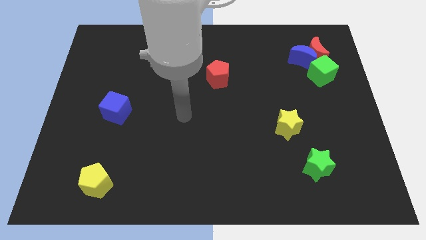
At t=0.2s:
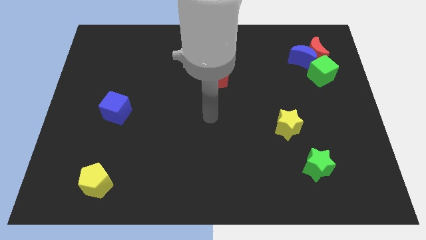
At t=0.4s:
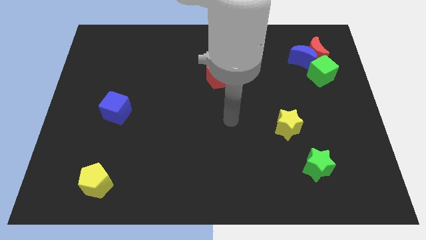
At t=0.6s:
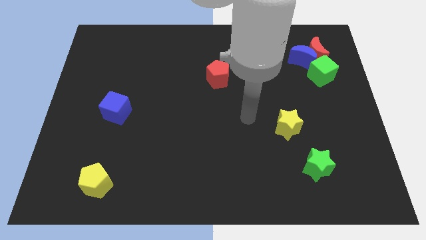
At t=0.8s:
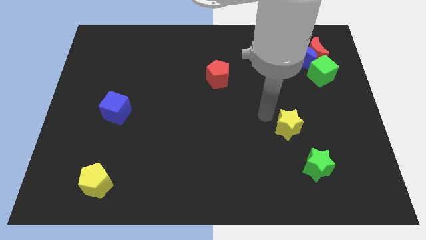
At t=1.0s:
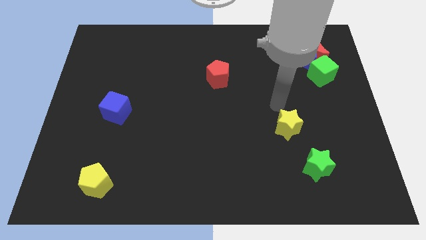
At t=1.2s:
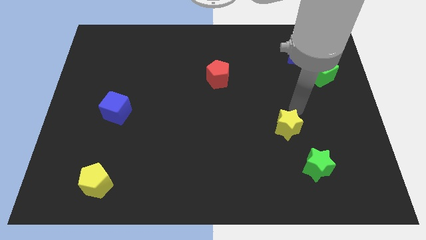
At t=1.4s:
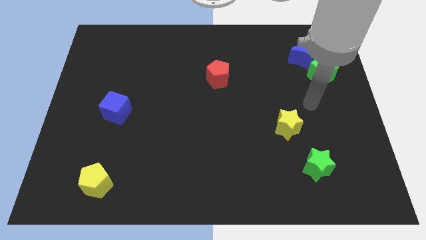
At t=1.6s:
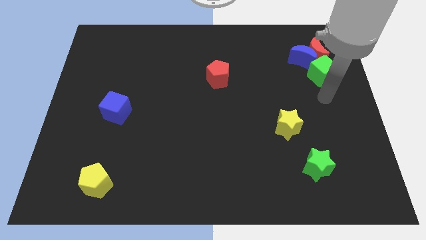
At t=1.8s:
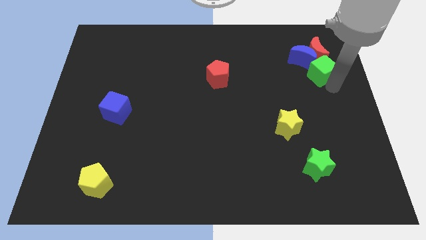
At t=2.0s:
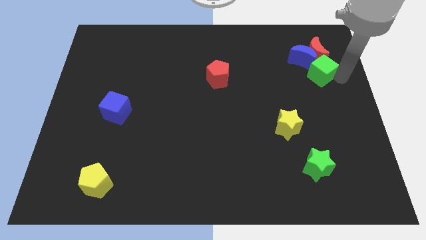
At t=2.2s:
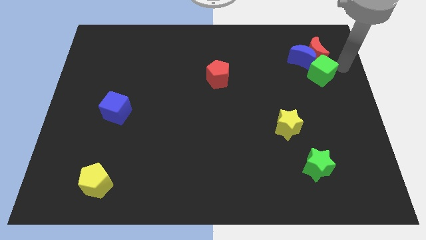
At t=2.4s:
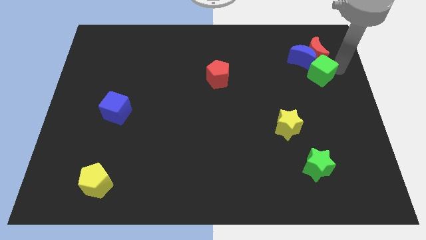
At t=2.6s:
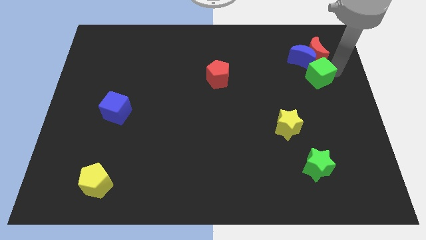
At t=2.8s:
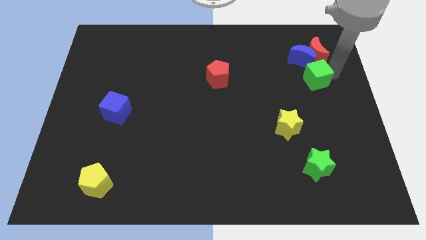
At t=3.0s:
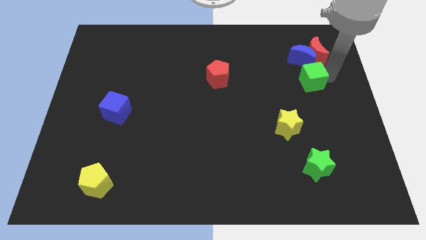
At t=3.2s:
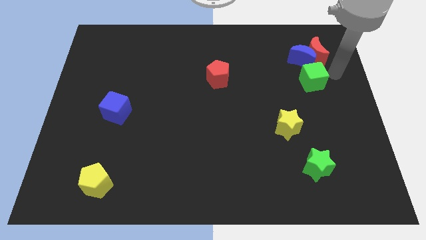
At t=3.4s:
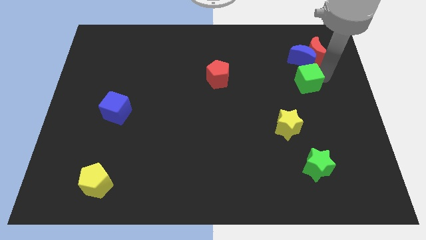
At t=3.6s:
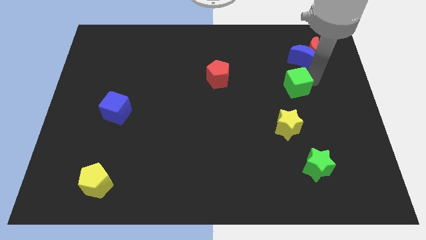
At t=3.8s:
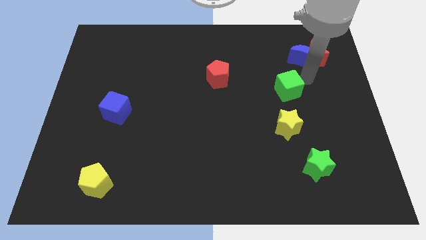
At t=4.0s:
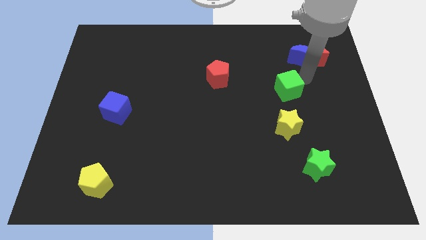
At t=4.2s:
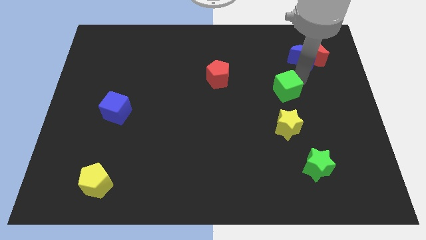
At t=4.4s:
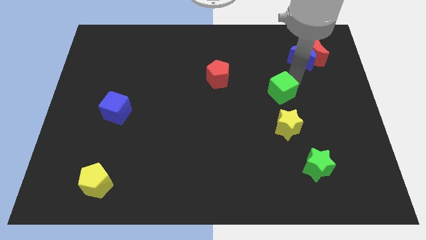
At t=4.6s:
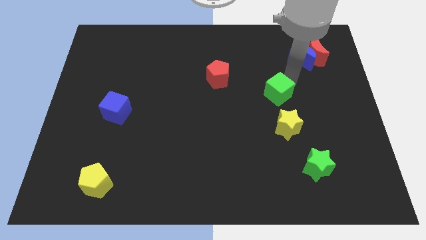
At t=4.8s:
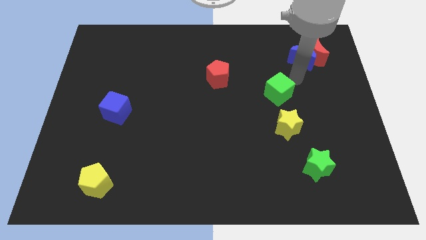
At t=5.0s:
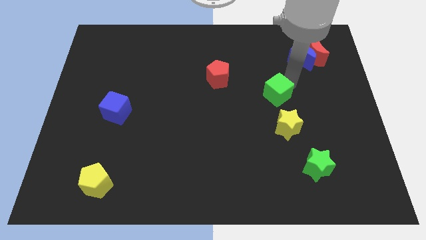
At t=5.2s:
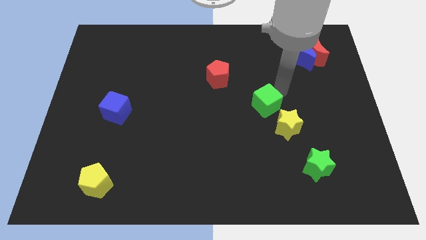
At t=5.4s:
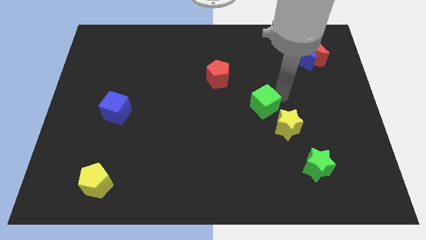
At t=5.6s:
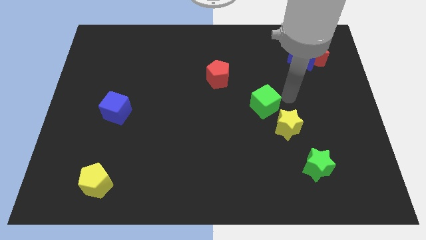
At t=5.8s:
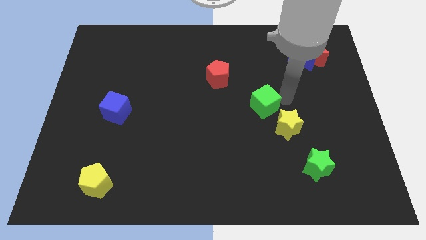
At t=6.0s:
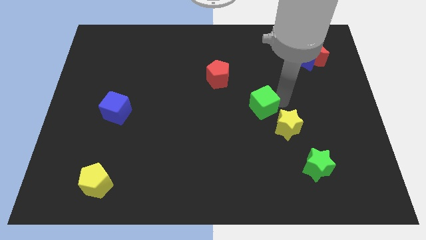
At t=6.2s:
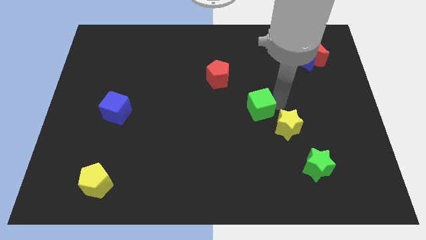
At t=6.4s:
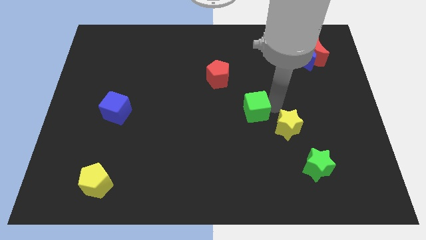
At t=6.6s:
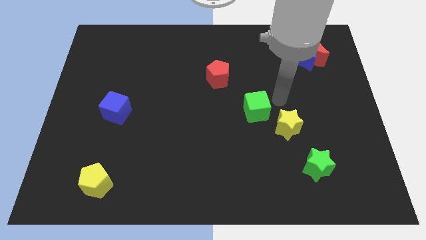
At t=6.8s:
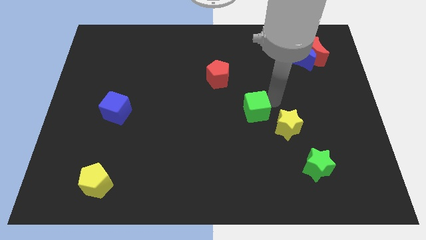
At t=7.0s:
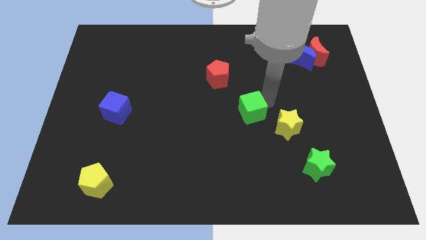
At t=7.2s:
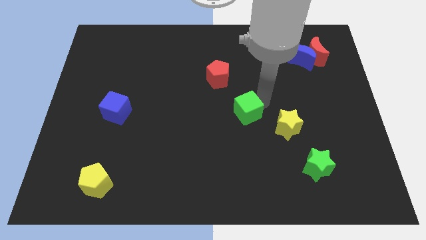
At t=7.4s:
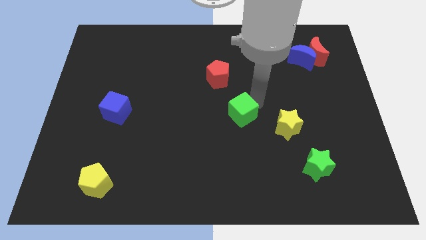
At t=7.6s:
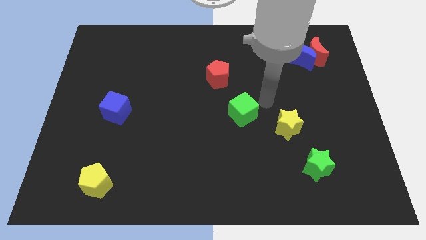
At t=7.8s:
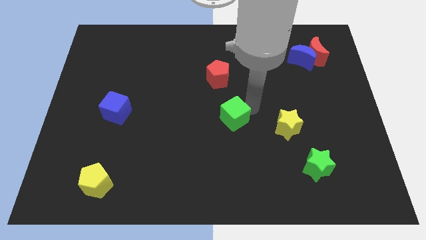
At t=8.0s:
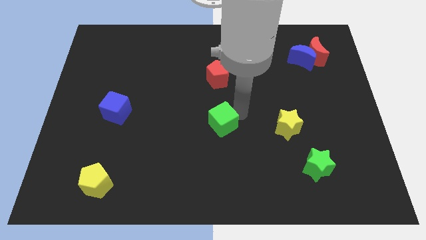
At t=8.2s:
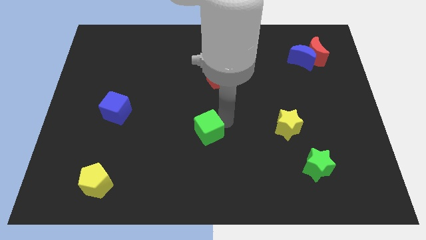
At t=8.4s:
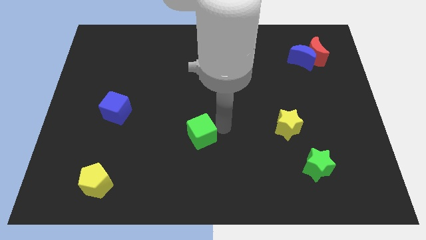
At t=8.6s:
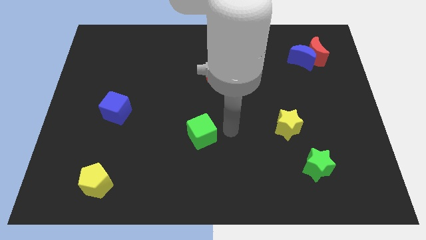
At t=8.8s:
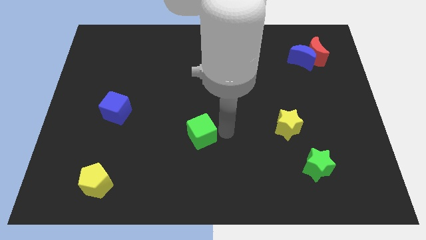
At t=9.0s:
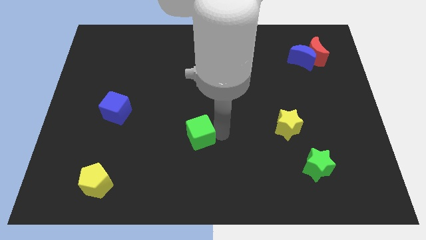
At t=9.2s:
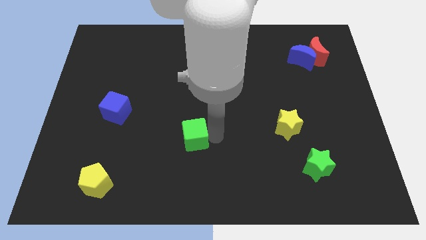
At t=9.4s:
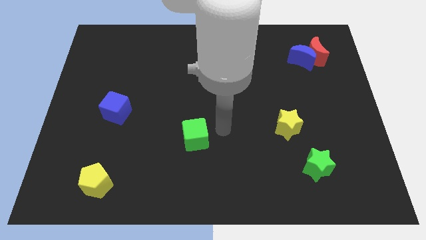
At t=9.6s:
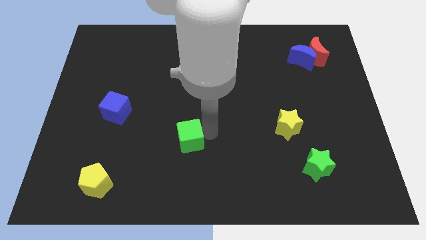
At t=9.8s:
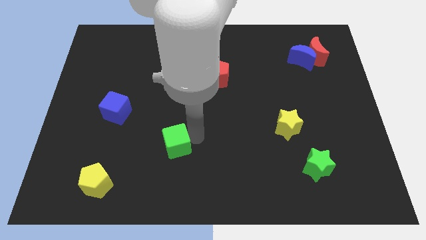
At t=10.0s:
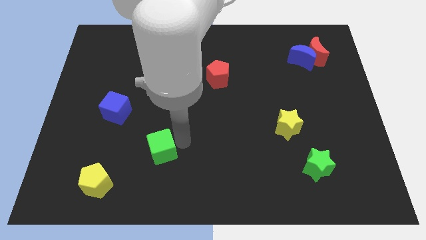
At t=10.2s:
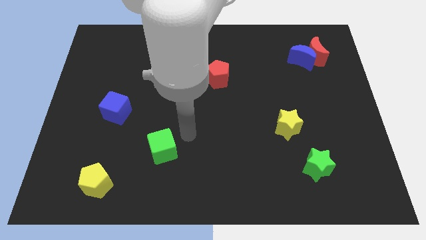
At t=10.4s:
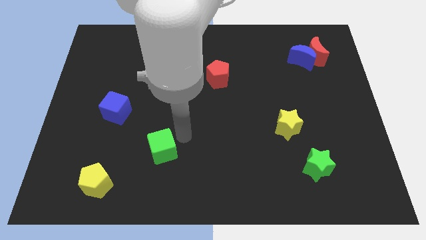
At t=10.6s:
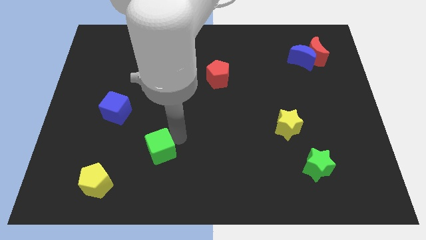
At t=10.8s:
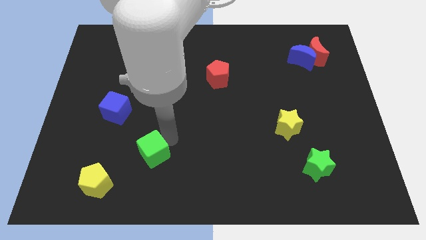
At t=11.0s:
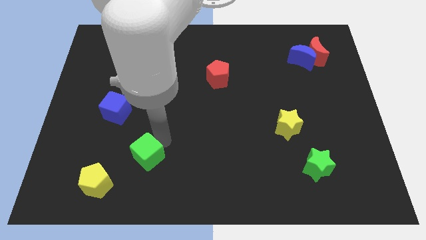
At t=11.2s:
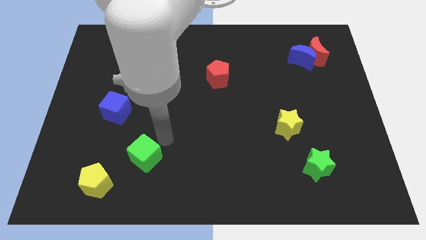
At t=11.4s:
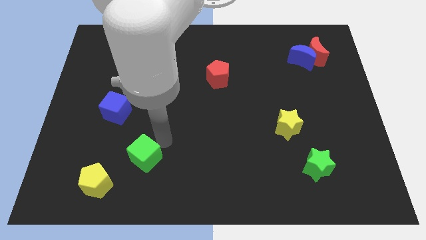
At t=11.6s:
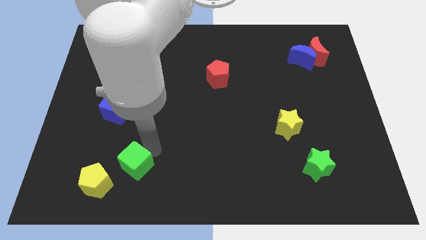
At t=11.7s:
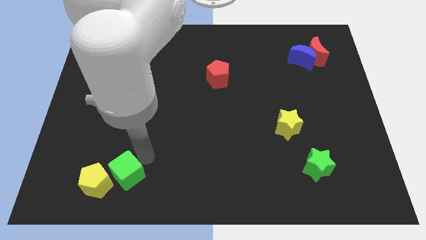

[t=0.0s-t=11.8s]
put the green cube next to the yellow pentagon

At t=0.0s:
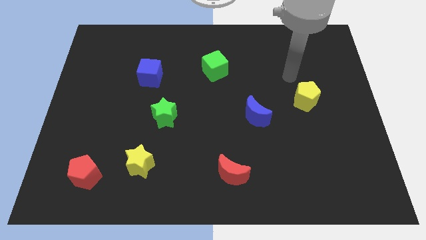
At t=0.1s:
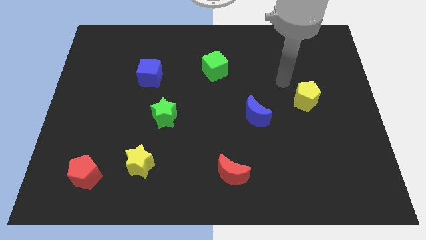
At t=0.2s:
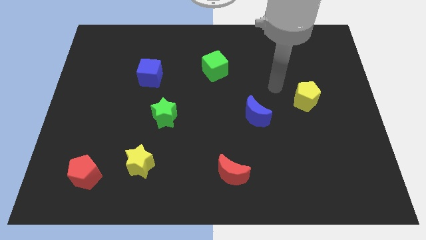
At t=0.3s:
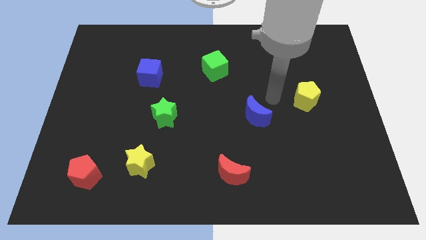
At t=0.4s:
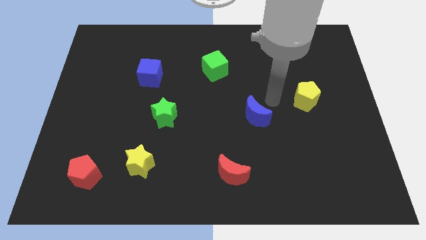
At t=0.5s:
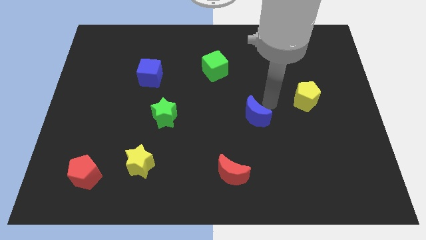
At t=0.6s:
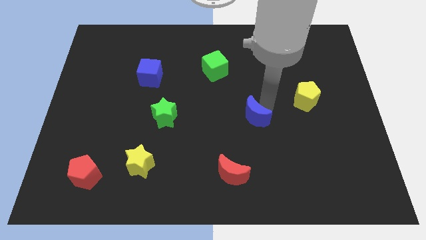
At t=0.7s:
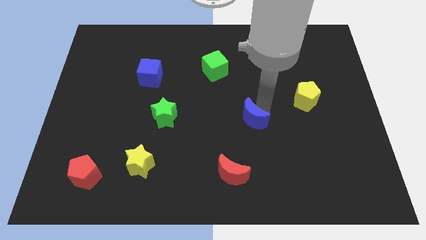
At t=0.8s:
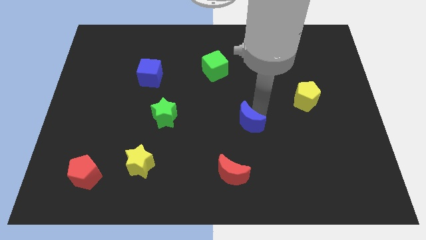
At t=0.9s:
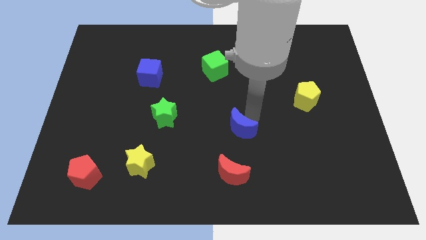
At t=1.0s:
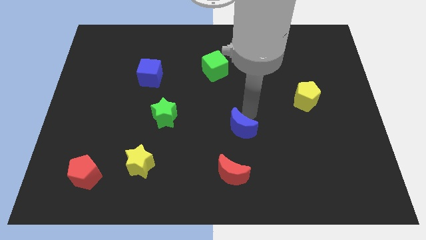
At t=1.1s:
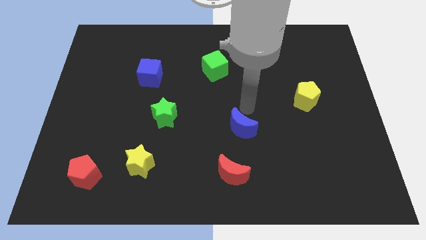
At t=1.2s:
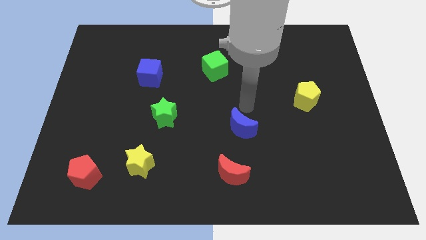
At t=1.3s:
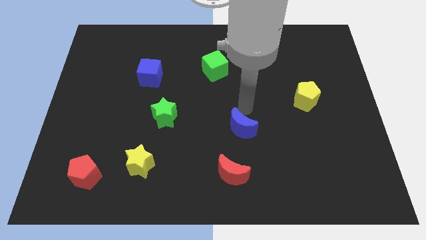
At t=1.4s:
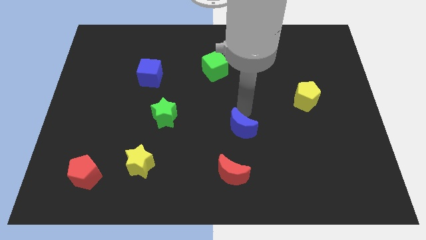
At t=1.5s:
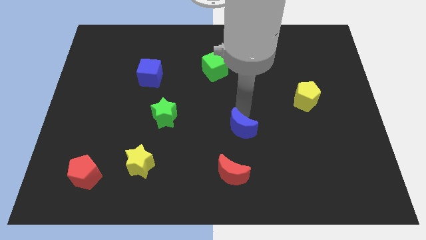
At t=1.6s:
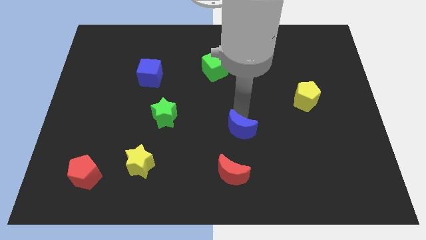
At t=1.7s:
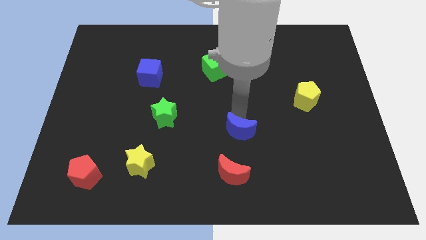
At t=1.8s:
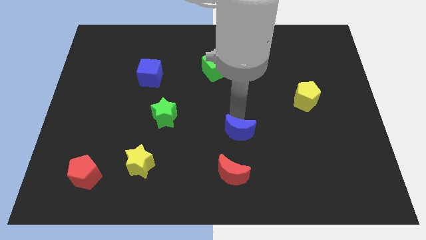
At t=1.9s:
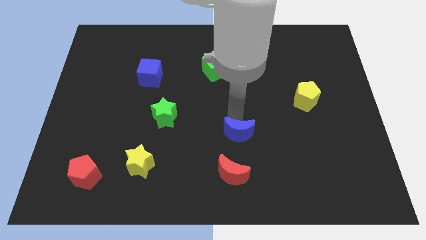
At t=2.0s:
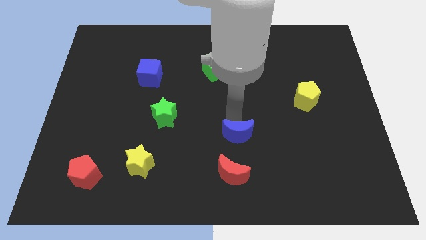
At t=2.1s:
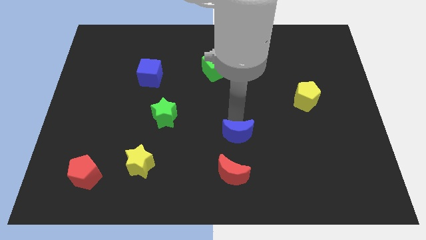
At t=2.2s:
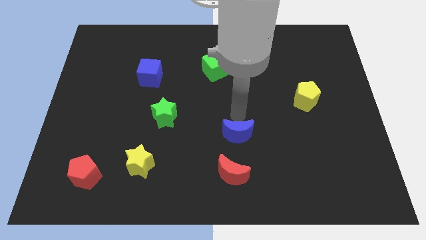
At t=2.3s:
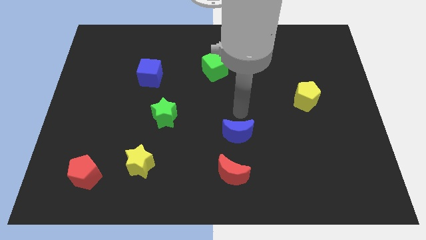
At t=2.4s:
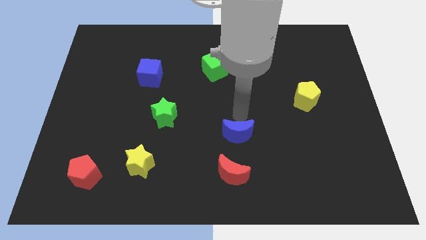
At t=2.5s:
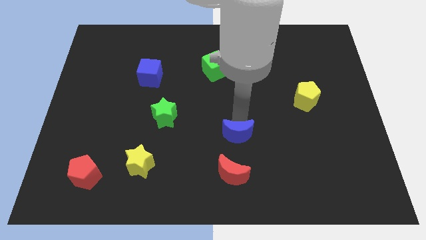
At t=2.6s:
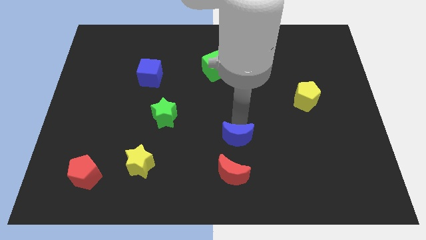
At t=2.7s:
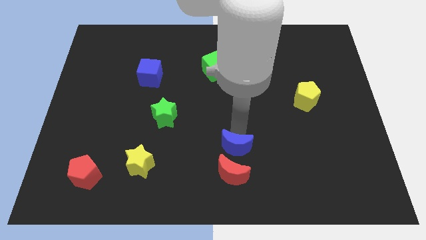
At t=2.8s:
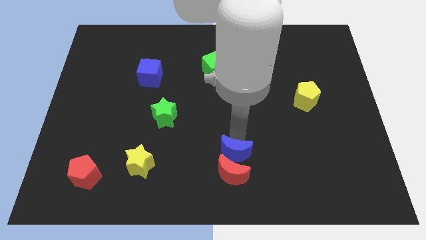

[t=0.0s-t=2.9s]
put the blue moon towards the red moon
